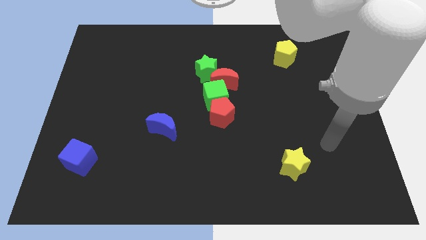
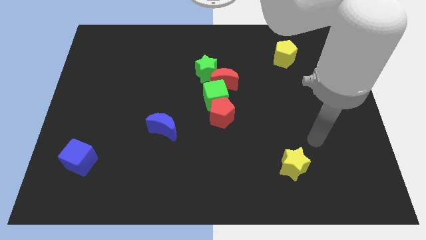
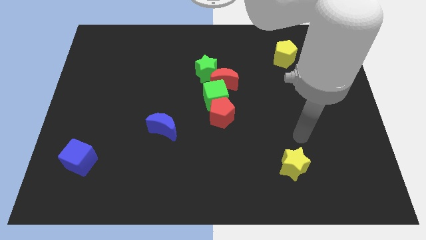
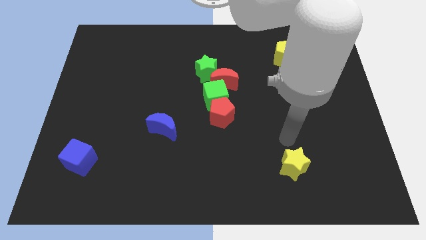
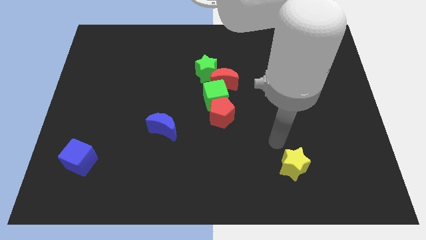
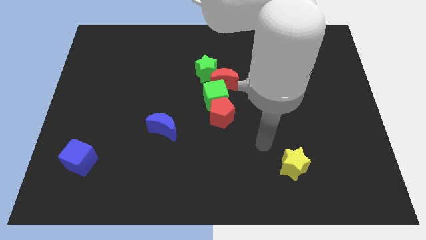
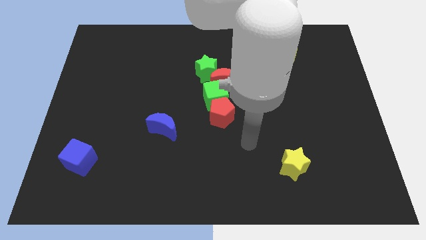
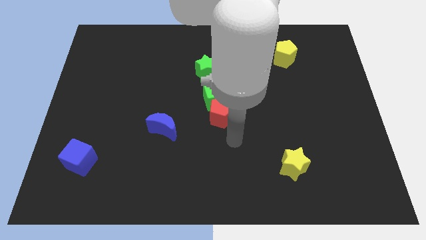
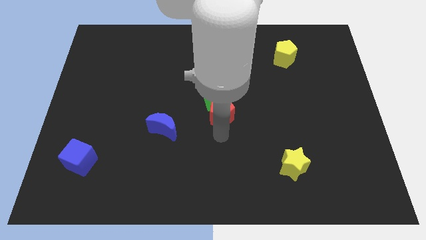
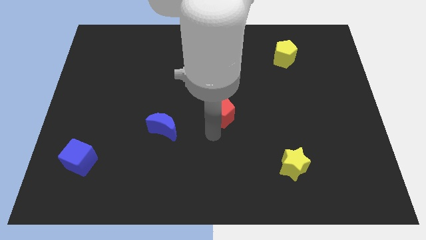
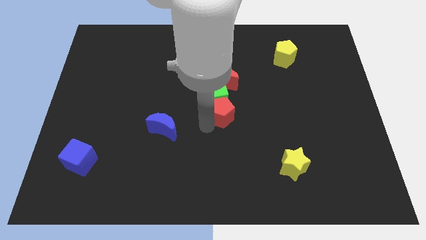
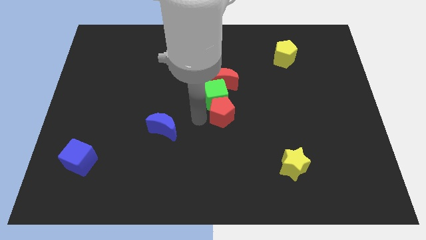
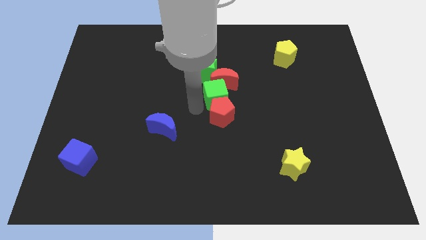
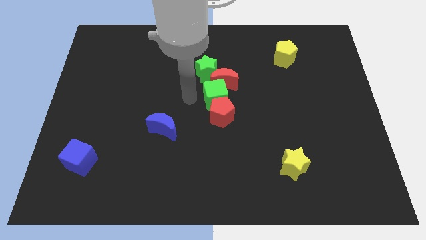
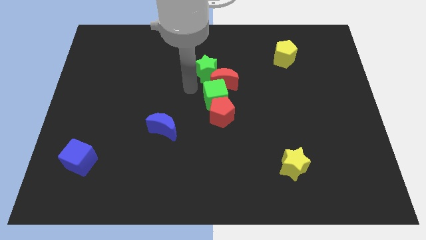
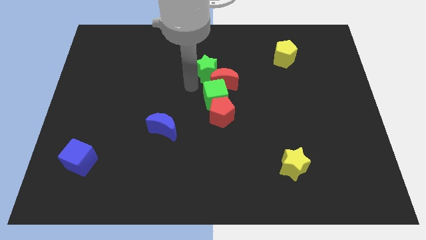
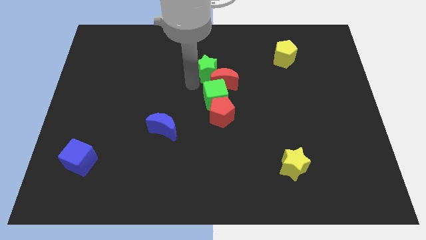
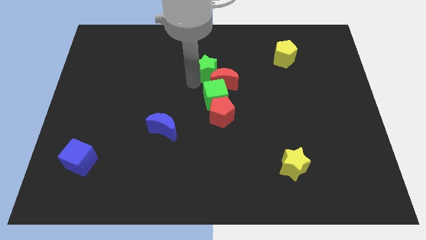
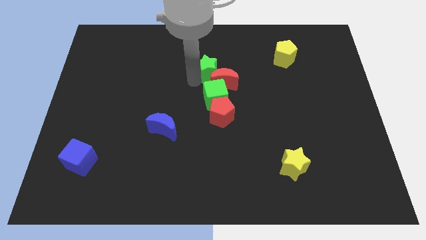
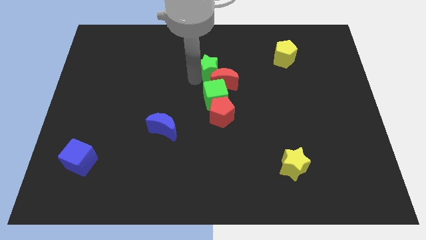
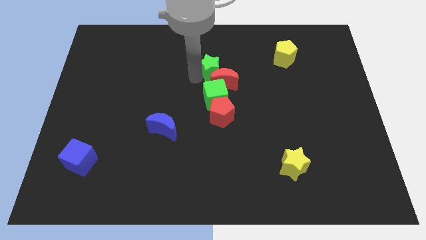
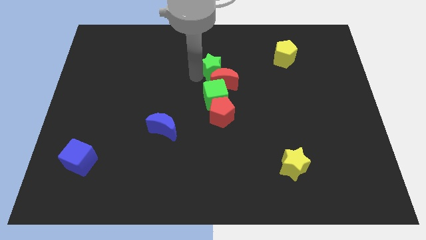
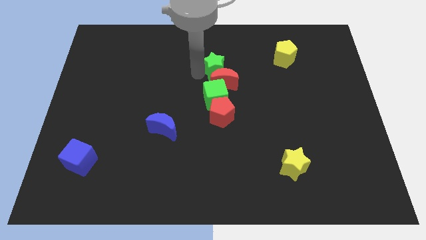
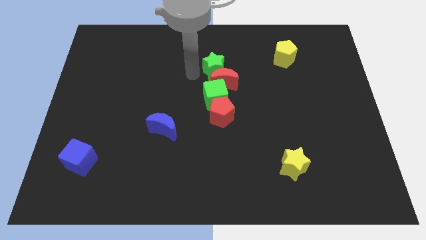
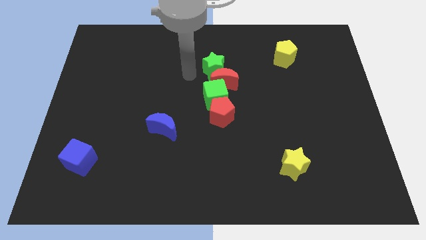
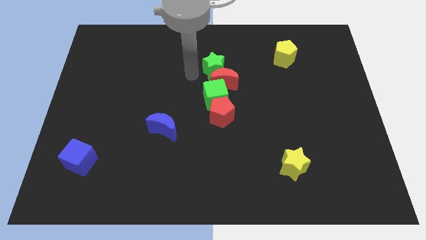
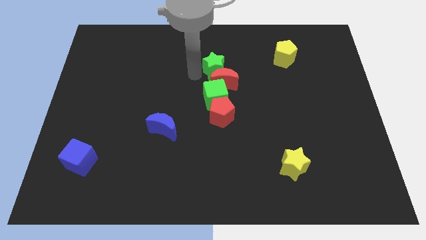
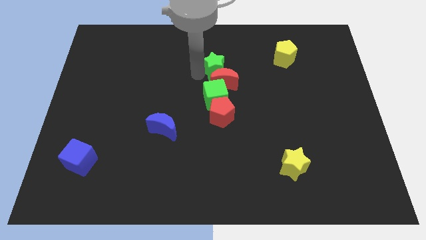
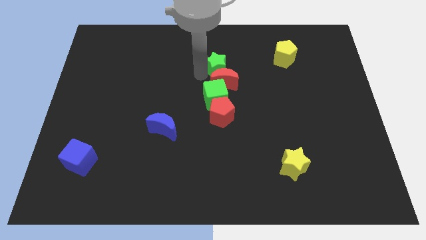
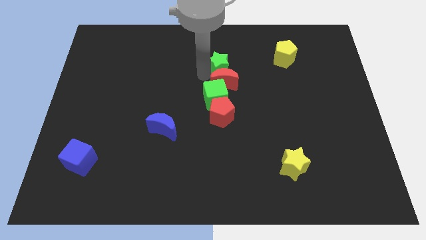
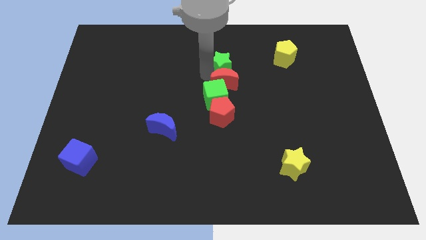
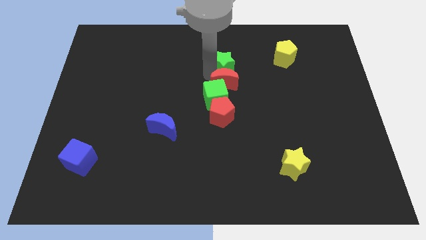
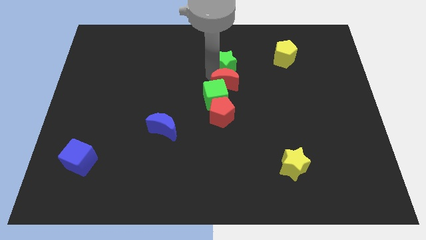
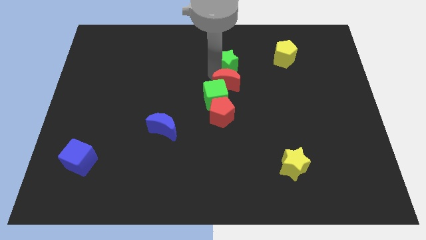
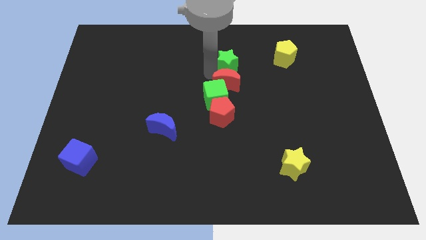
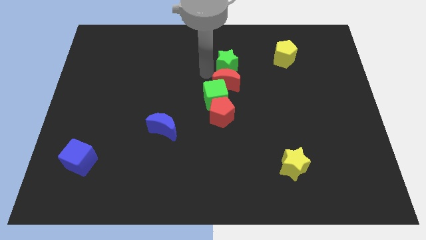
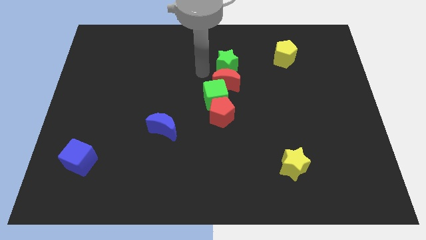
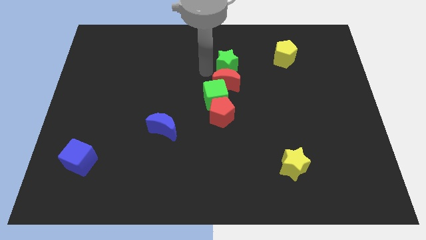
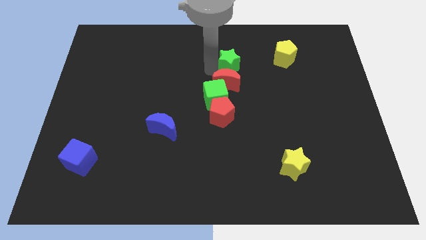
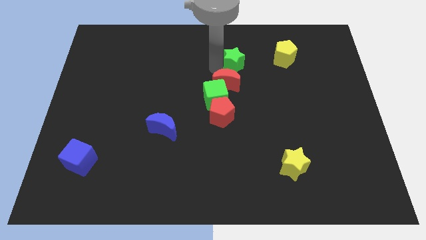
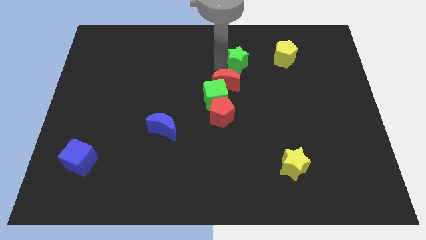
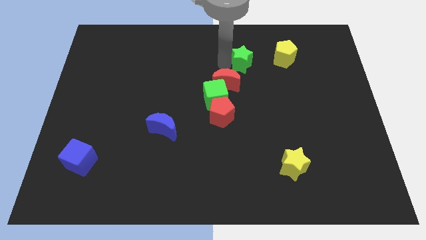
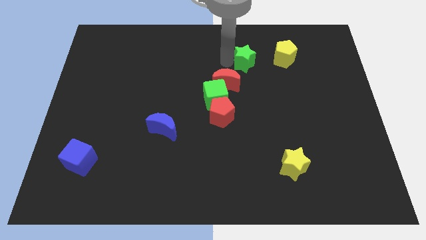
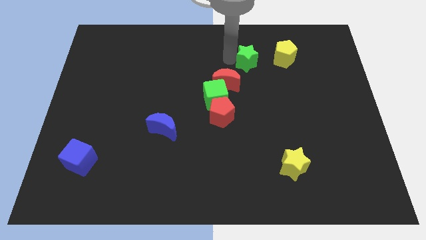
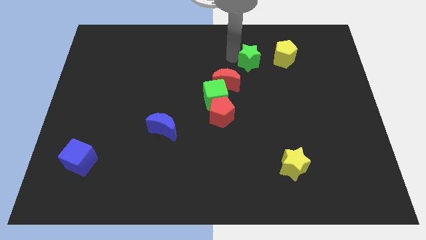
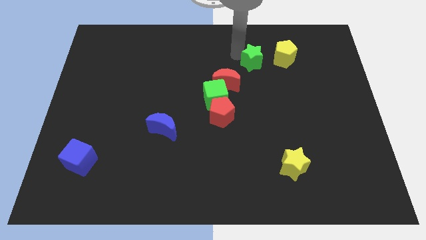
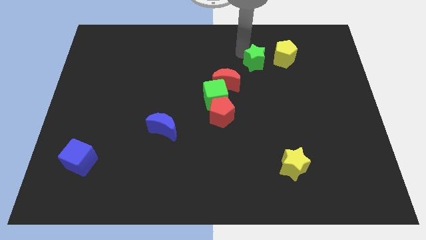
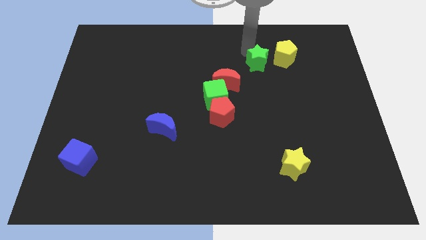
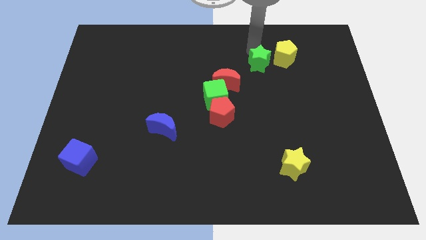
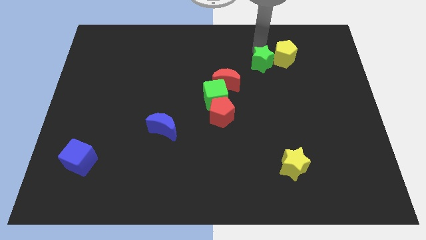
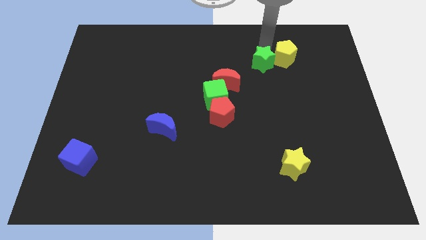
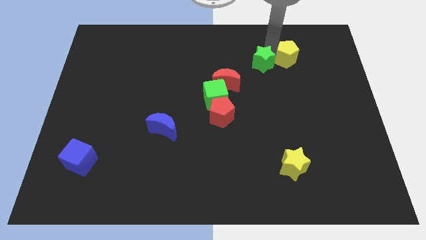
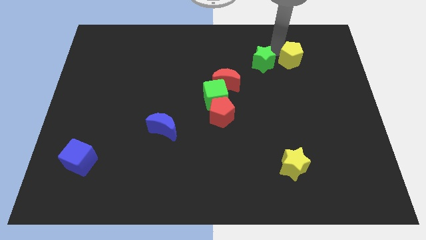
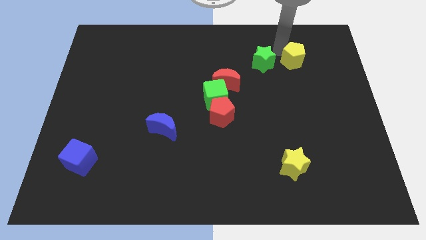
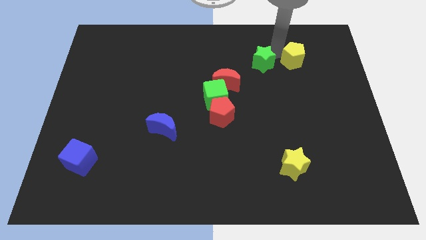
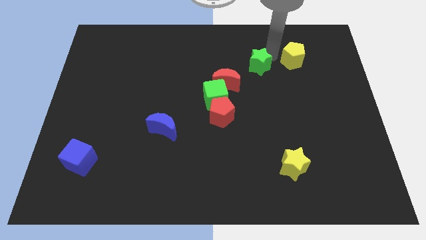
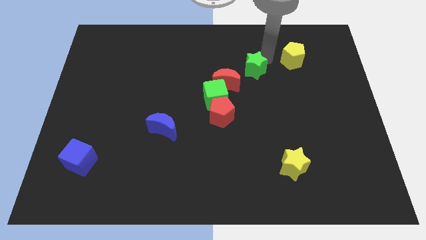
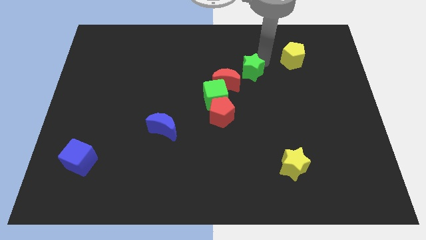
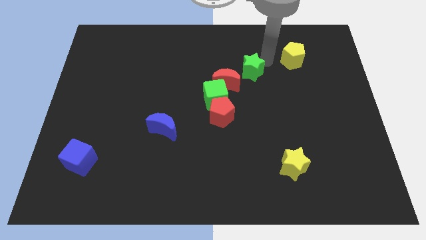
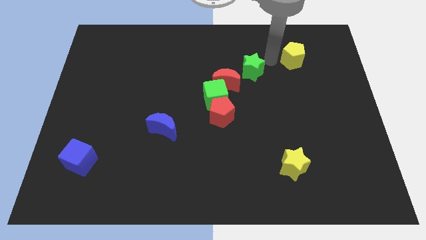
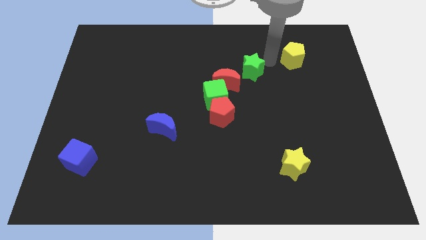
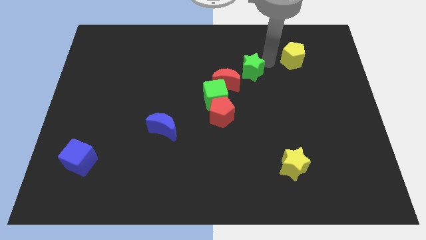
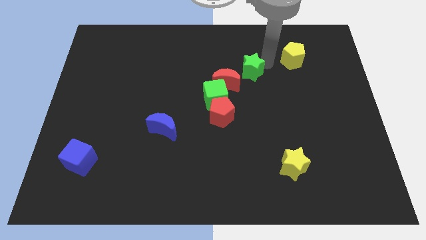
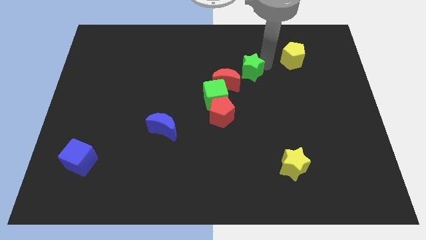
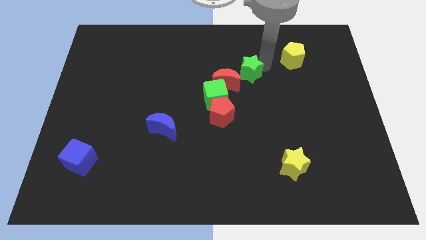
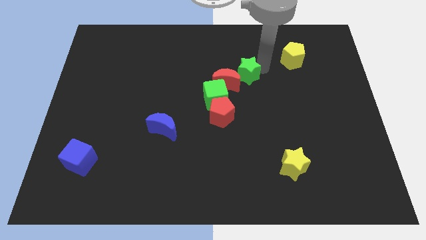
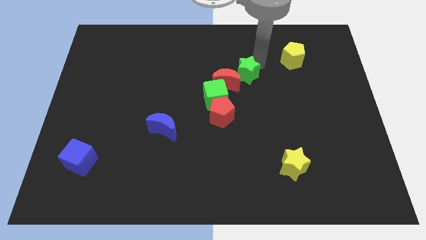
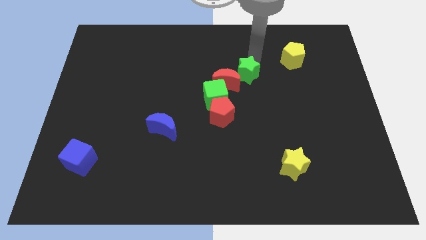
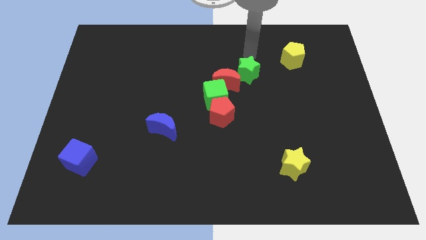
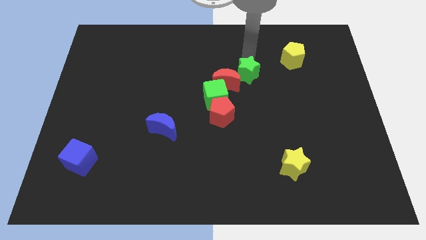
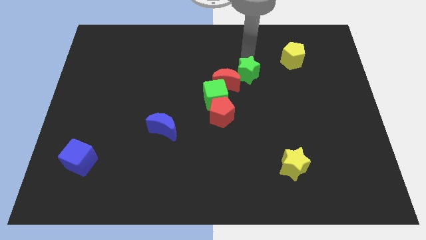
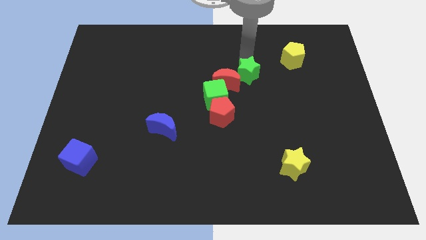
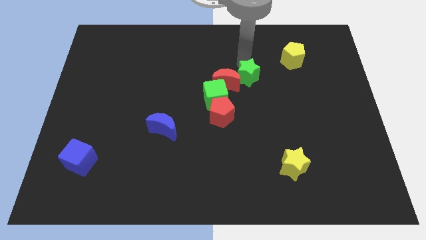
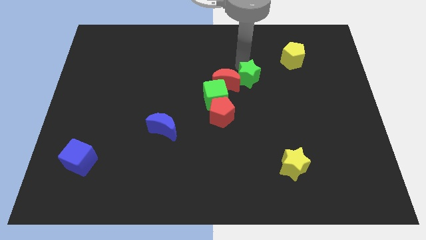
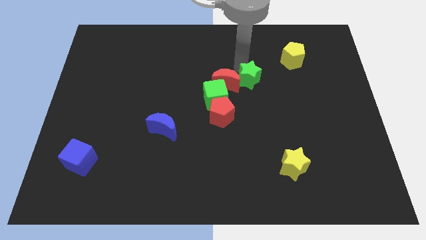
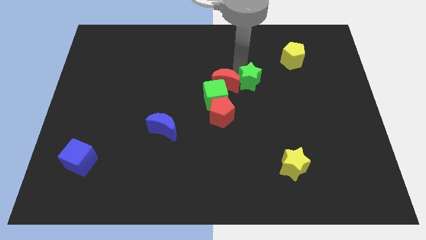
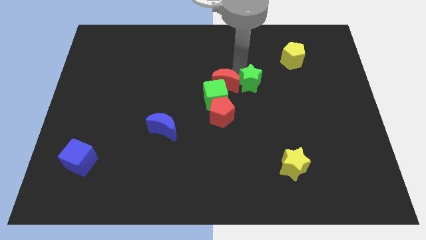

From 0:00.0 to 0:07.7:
put the green star to the top right of the red pentagon
